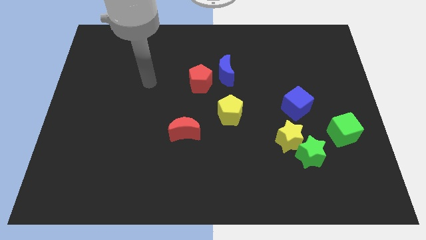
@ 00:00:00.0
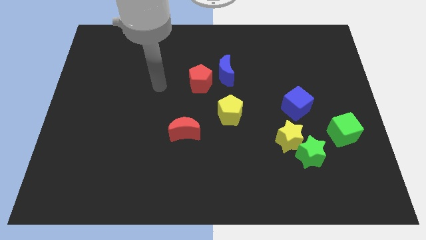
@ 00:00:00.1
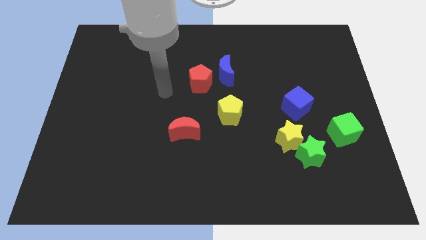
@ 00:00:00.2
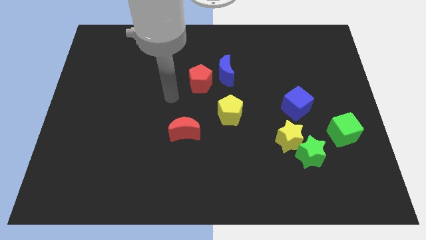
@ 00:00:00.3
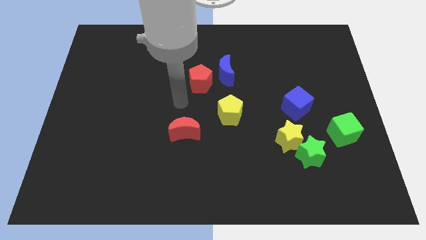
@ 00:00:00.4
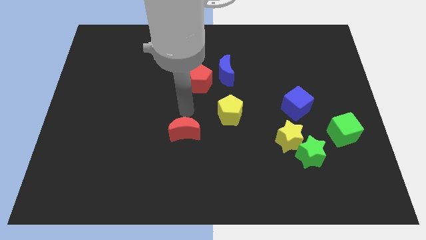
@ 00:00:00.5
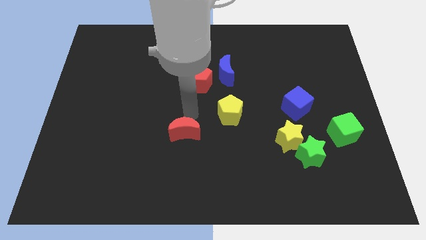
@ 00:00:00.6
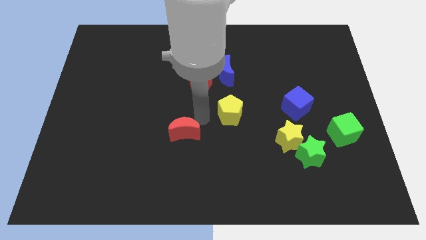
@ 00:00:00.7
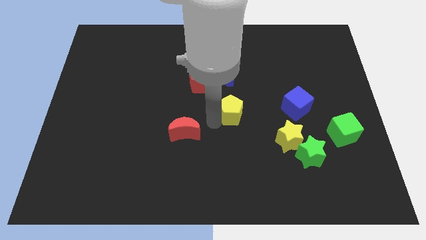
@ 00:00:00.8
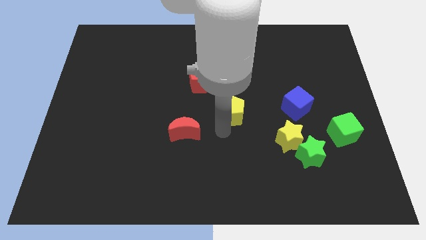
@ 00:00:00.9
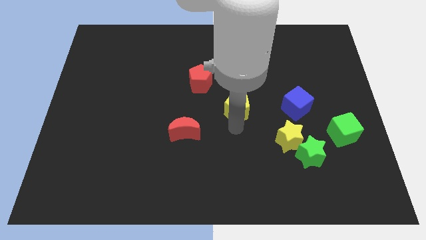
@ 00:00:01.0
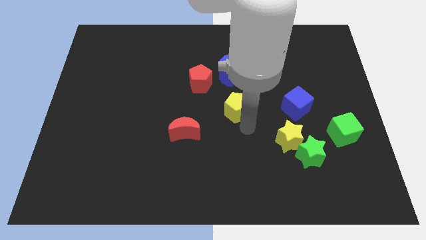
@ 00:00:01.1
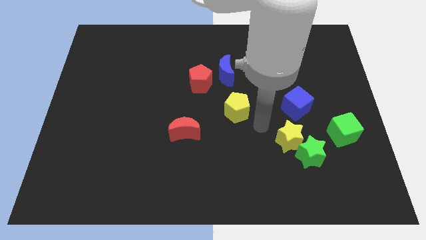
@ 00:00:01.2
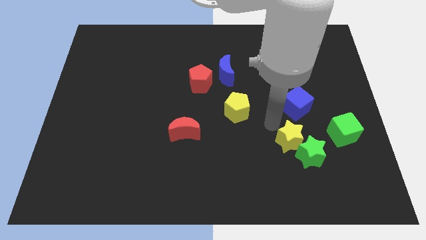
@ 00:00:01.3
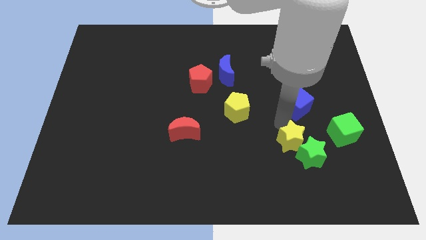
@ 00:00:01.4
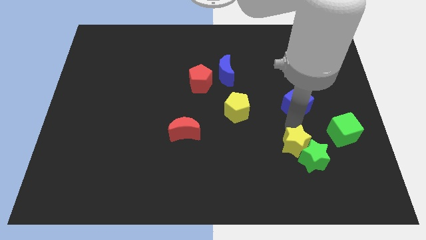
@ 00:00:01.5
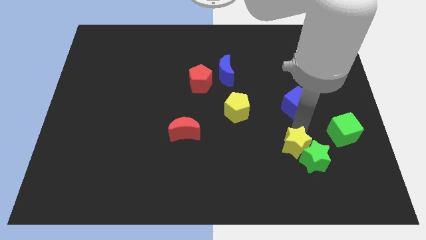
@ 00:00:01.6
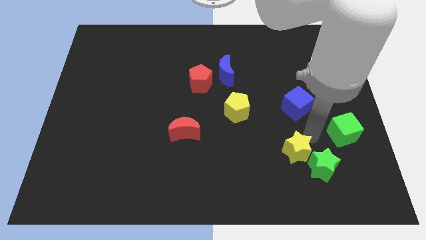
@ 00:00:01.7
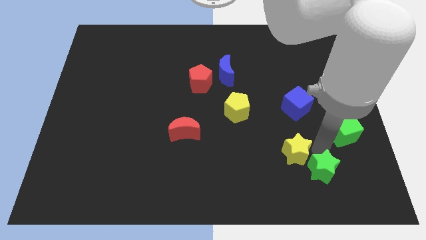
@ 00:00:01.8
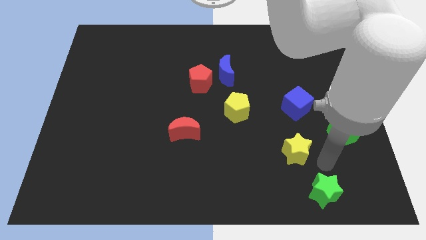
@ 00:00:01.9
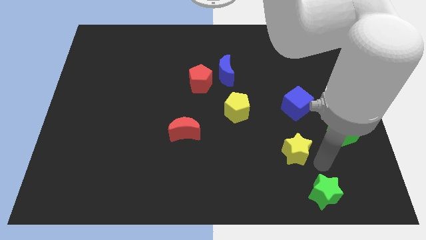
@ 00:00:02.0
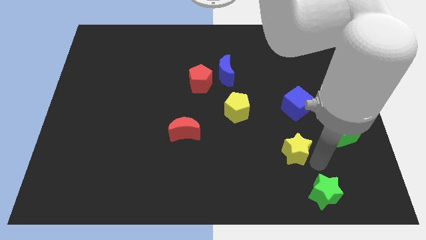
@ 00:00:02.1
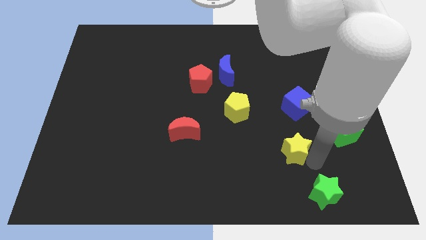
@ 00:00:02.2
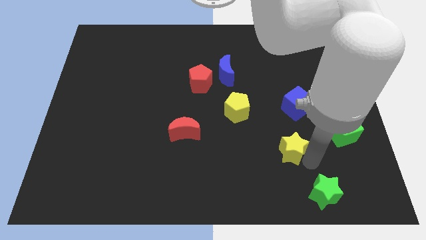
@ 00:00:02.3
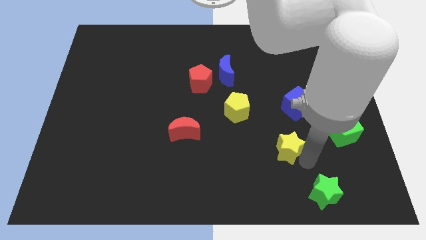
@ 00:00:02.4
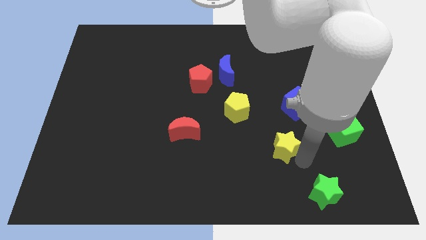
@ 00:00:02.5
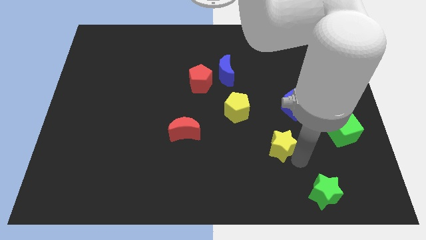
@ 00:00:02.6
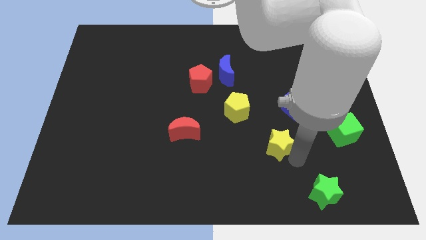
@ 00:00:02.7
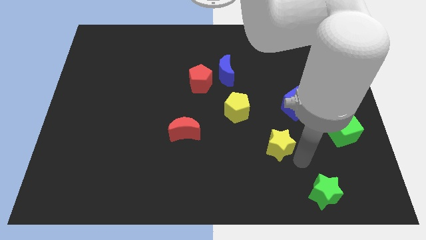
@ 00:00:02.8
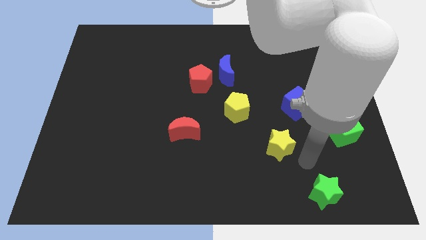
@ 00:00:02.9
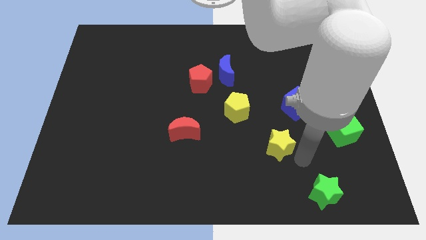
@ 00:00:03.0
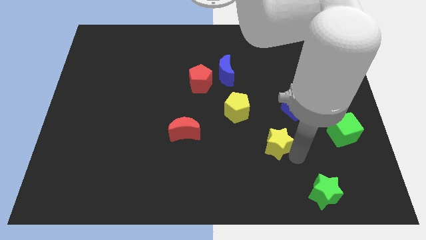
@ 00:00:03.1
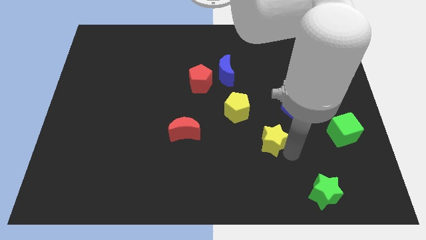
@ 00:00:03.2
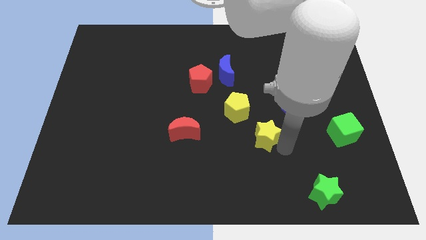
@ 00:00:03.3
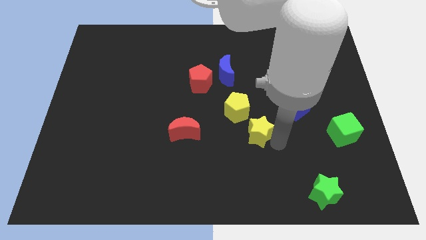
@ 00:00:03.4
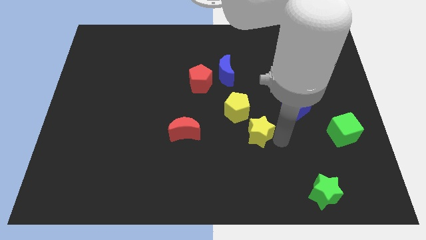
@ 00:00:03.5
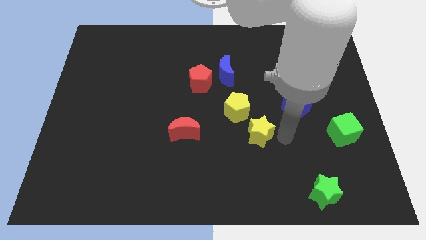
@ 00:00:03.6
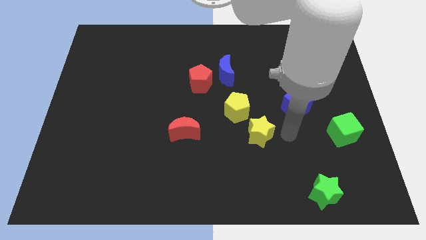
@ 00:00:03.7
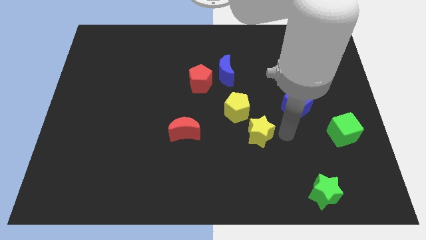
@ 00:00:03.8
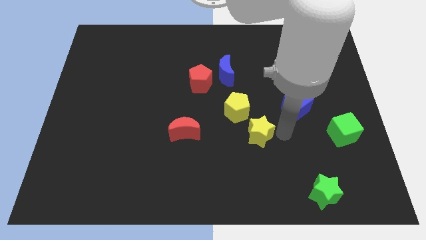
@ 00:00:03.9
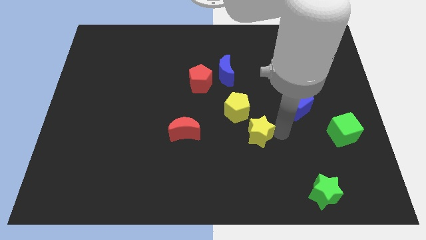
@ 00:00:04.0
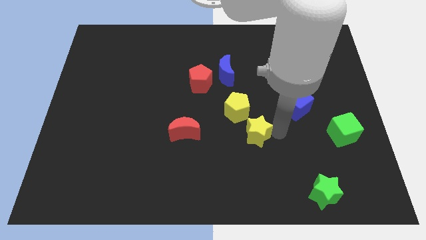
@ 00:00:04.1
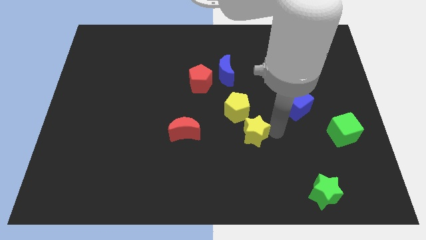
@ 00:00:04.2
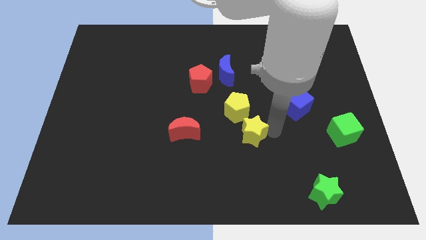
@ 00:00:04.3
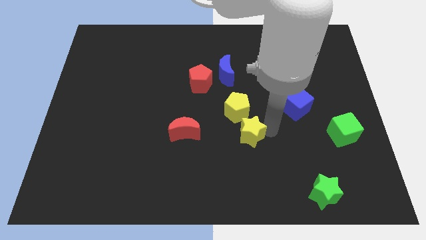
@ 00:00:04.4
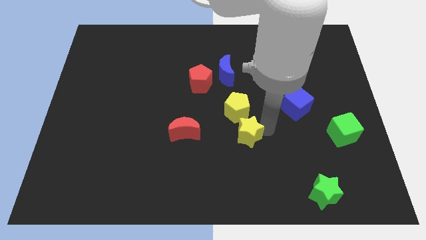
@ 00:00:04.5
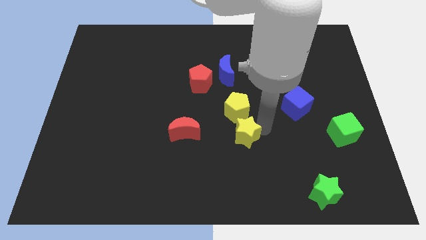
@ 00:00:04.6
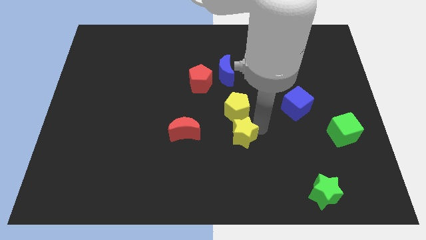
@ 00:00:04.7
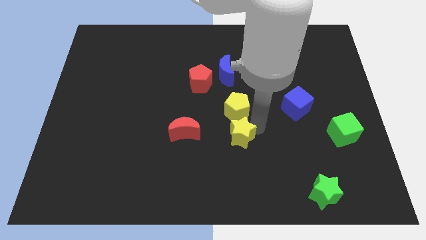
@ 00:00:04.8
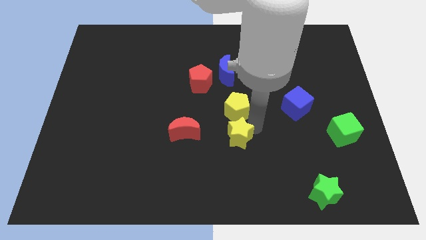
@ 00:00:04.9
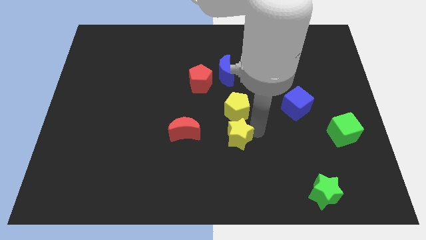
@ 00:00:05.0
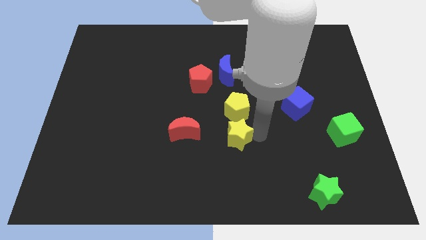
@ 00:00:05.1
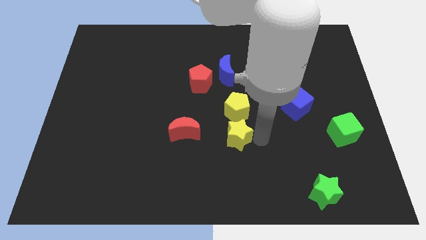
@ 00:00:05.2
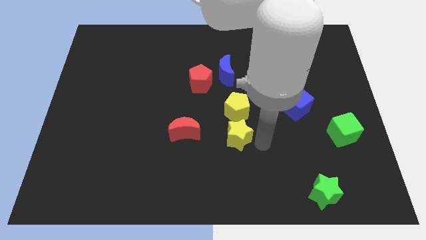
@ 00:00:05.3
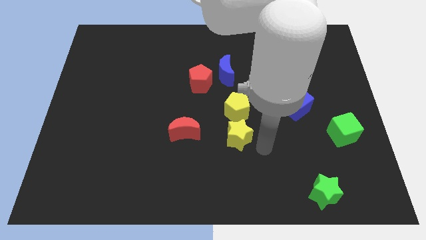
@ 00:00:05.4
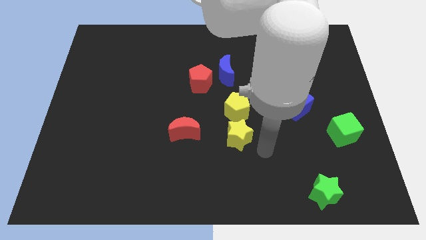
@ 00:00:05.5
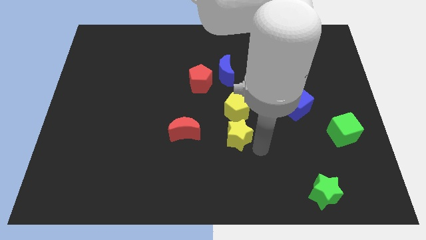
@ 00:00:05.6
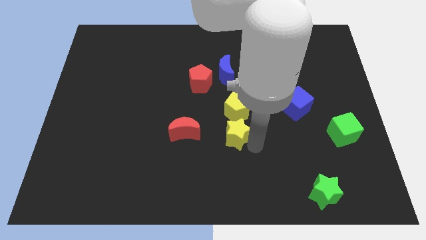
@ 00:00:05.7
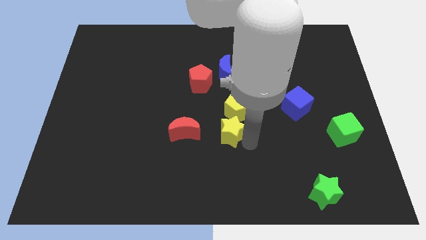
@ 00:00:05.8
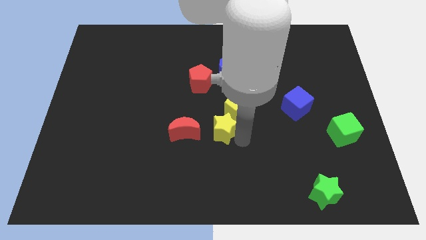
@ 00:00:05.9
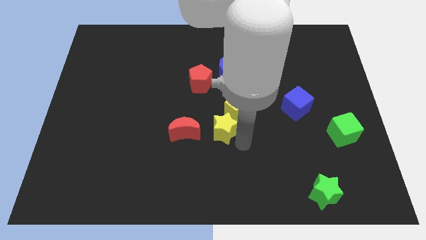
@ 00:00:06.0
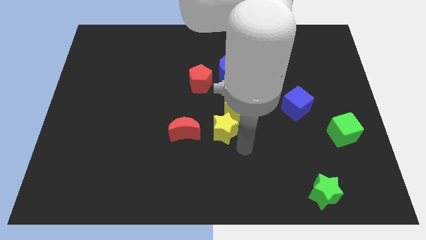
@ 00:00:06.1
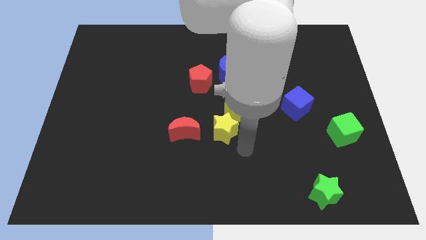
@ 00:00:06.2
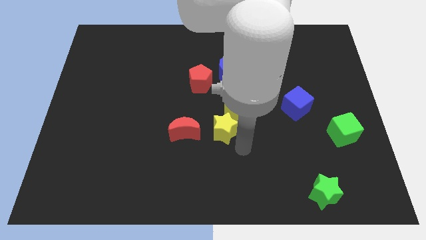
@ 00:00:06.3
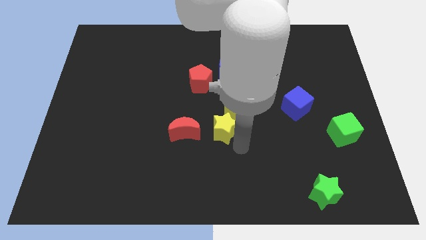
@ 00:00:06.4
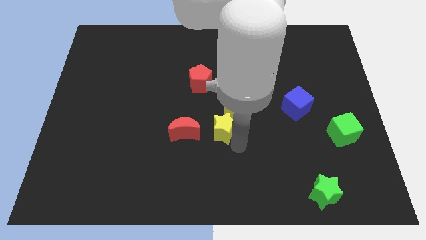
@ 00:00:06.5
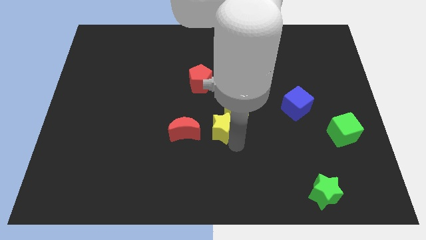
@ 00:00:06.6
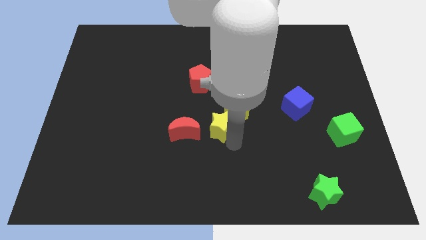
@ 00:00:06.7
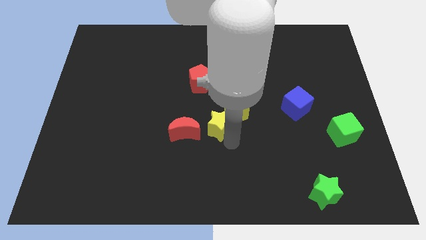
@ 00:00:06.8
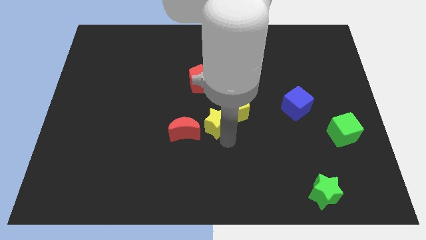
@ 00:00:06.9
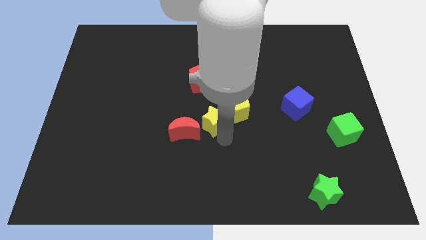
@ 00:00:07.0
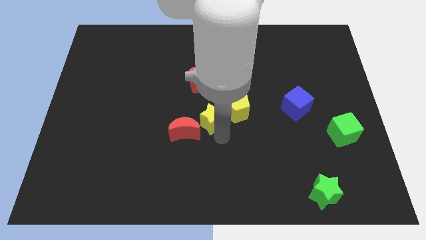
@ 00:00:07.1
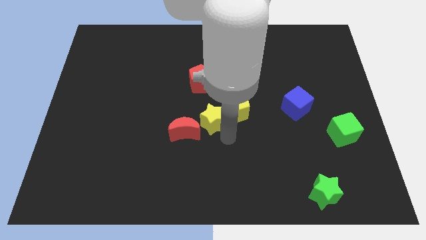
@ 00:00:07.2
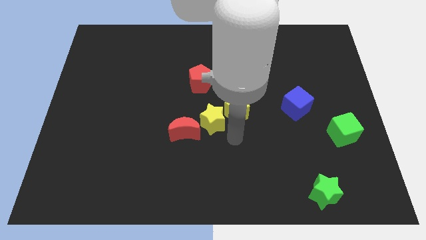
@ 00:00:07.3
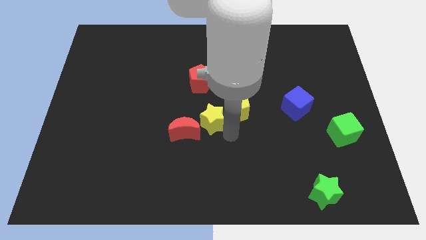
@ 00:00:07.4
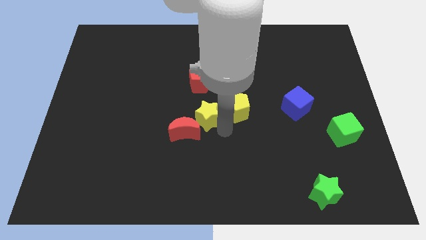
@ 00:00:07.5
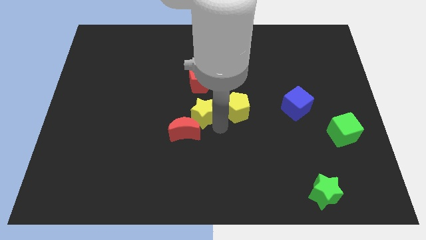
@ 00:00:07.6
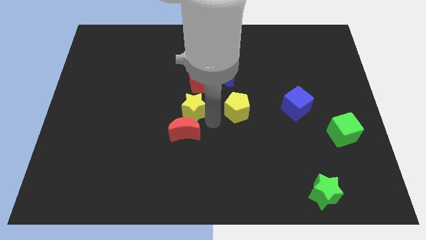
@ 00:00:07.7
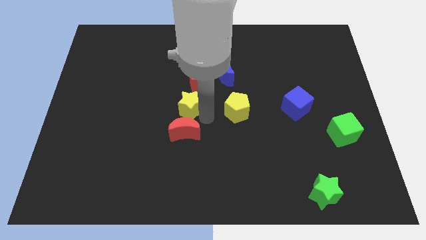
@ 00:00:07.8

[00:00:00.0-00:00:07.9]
push the yellow star to the bottom left of the red pentagon
